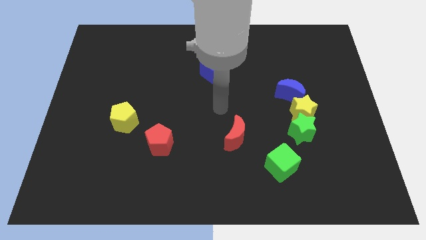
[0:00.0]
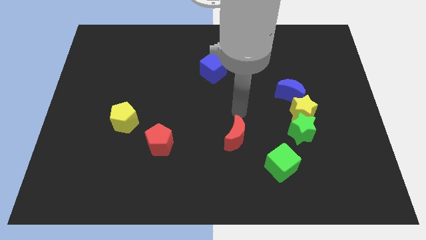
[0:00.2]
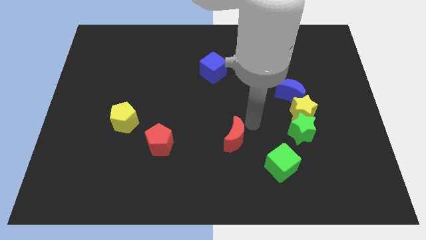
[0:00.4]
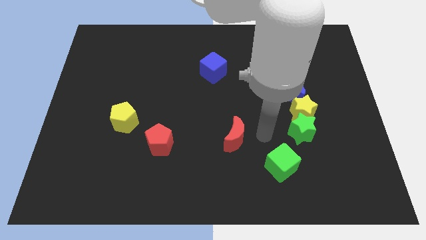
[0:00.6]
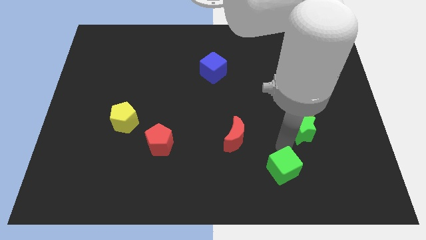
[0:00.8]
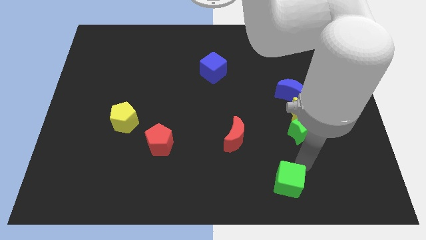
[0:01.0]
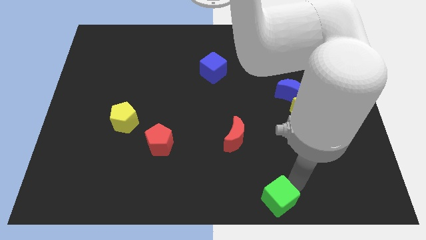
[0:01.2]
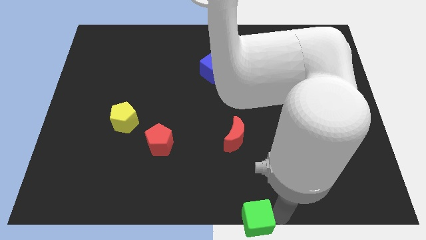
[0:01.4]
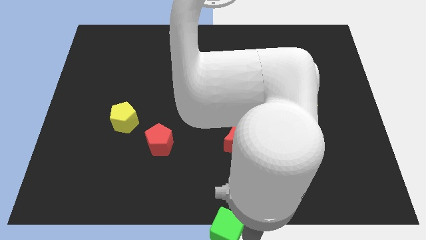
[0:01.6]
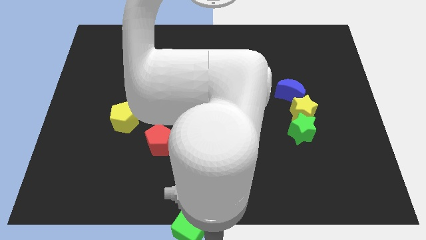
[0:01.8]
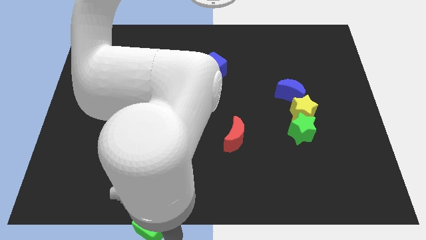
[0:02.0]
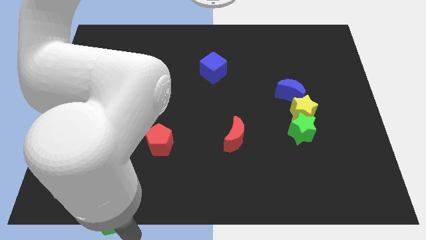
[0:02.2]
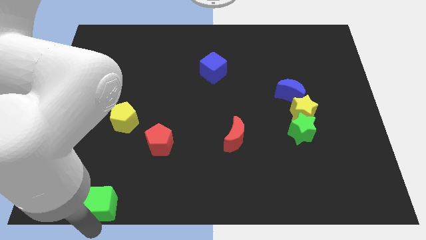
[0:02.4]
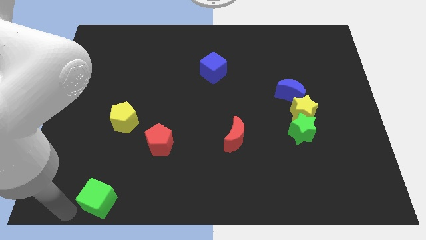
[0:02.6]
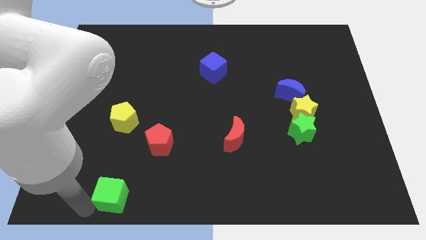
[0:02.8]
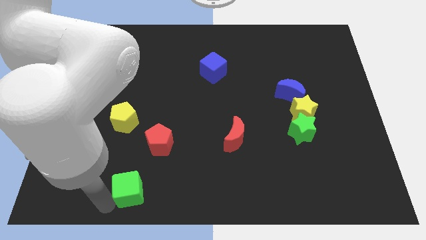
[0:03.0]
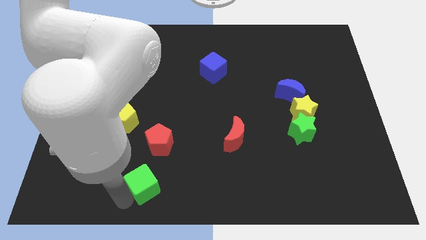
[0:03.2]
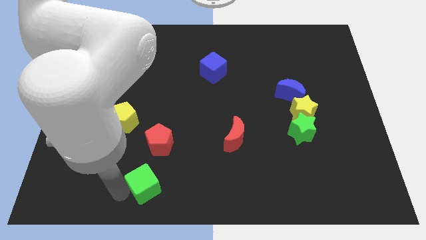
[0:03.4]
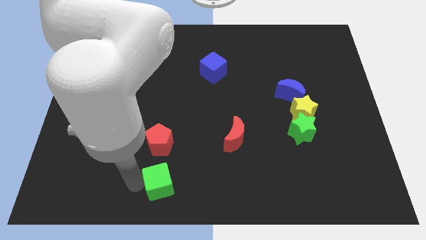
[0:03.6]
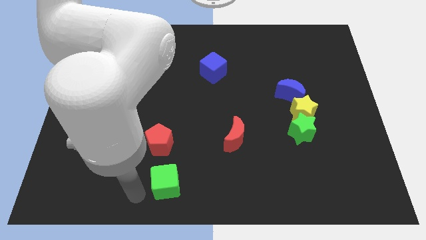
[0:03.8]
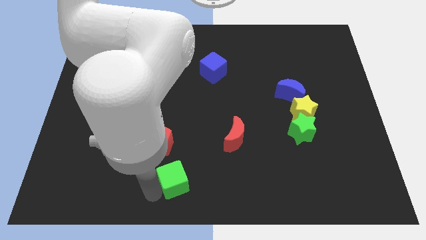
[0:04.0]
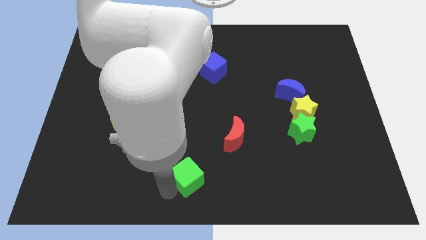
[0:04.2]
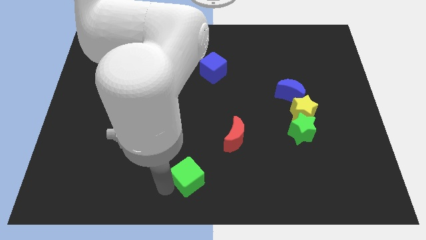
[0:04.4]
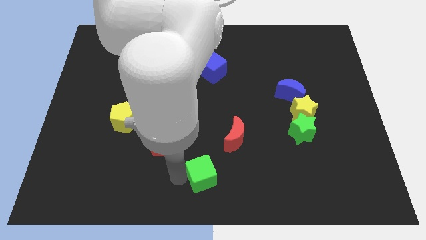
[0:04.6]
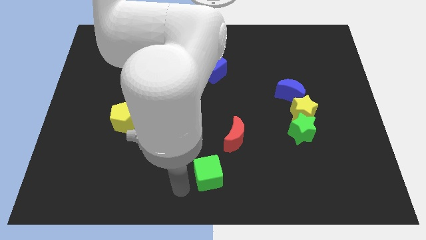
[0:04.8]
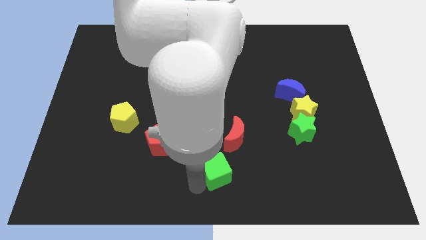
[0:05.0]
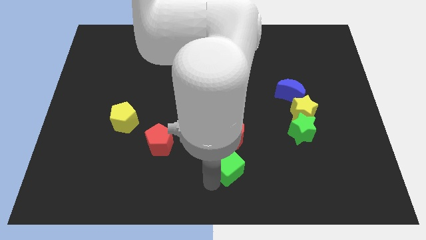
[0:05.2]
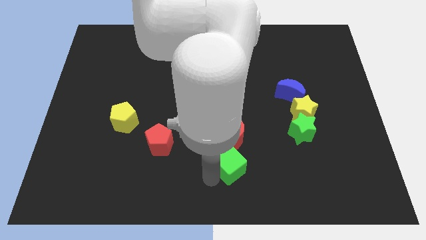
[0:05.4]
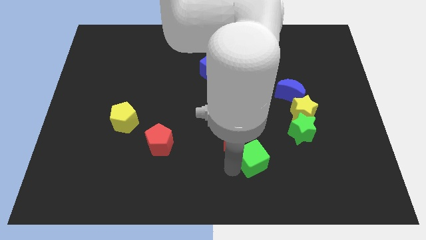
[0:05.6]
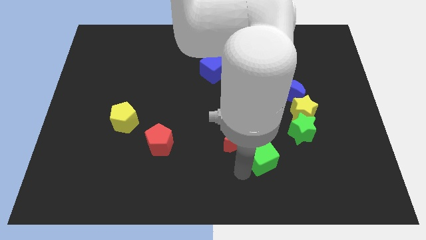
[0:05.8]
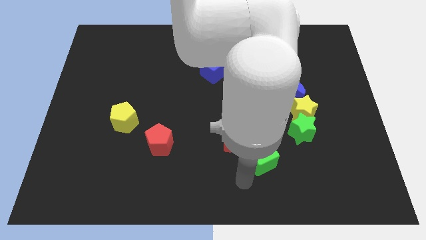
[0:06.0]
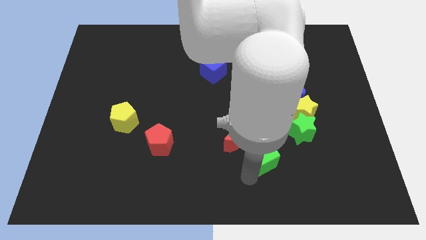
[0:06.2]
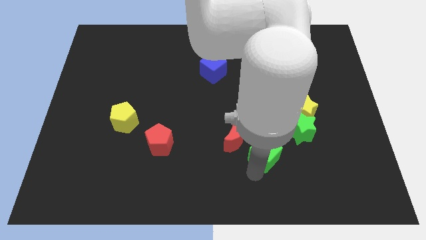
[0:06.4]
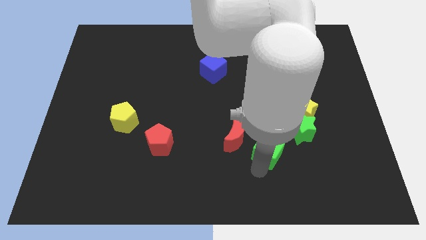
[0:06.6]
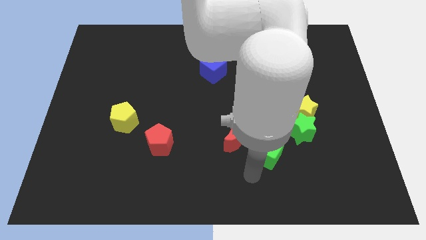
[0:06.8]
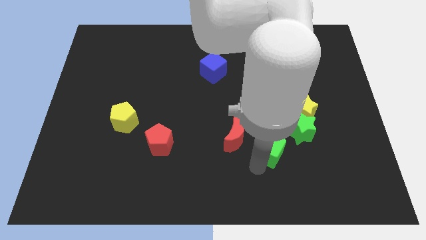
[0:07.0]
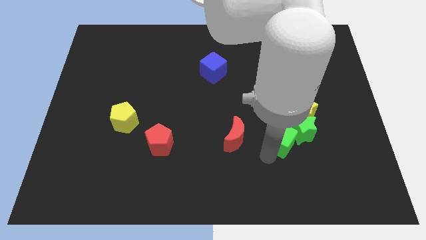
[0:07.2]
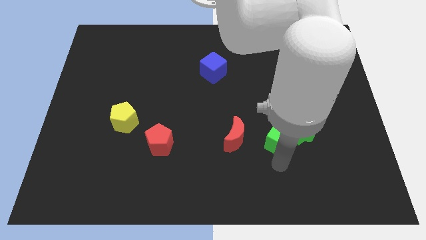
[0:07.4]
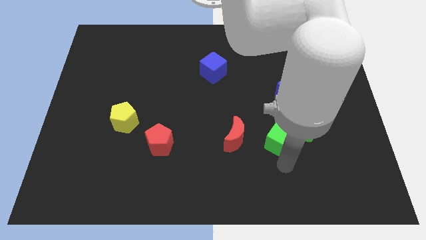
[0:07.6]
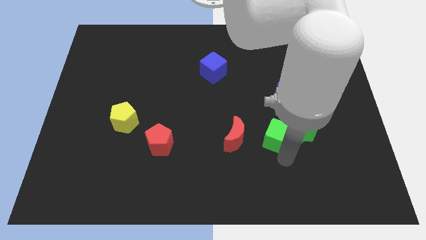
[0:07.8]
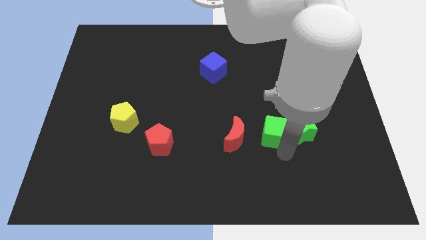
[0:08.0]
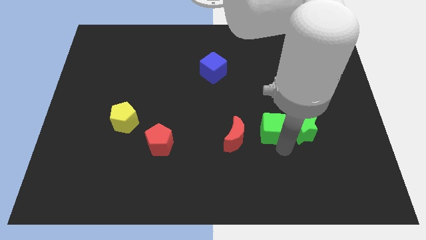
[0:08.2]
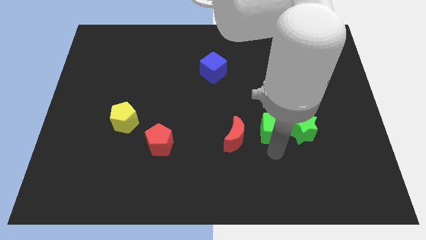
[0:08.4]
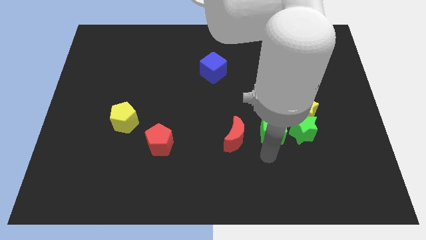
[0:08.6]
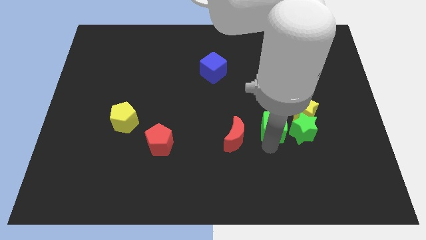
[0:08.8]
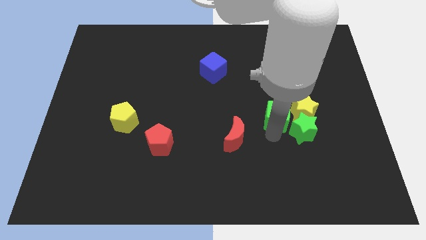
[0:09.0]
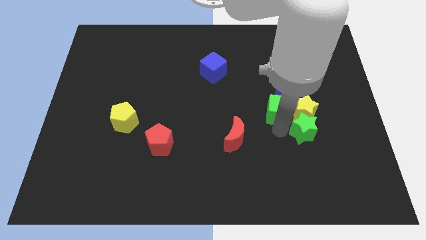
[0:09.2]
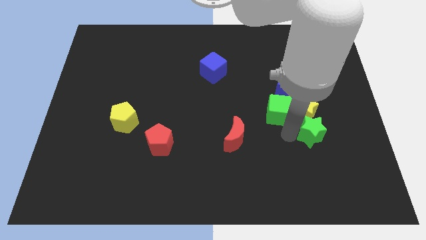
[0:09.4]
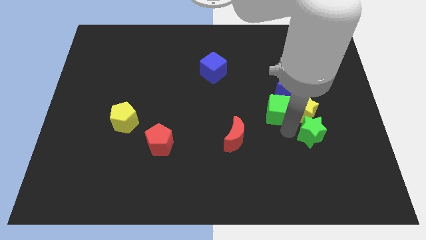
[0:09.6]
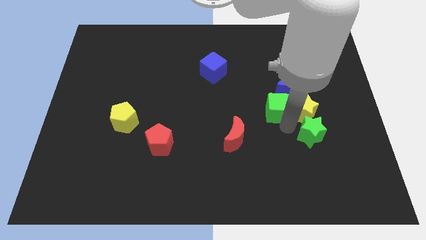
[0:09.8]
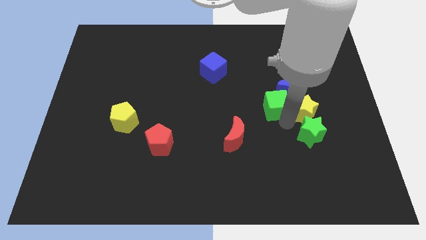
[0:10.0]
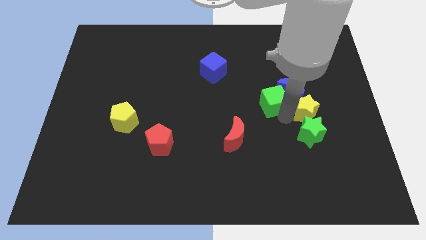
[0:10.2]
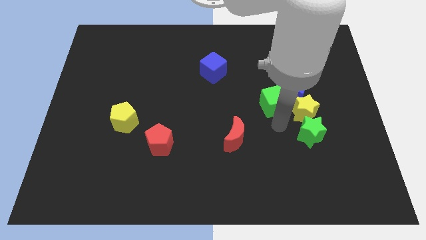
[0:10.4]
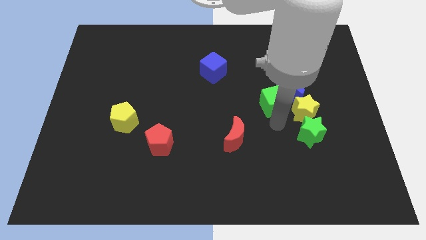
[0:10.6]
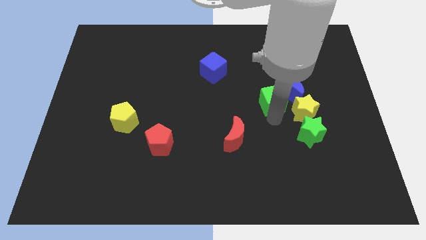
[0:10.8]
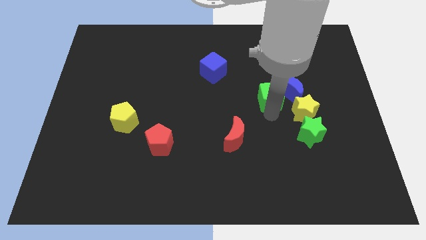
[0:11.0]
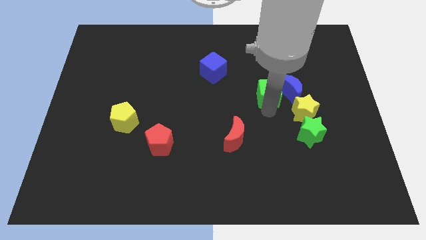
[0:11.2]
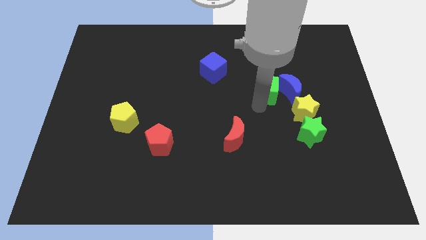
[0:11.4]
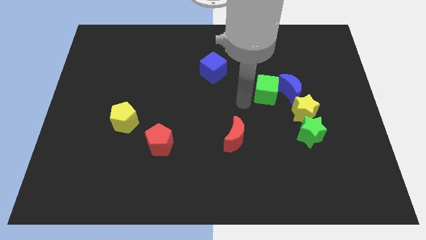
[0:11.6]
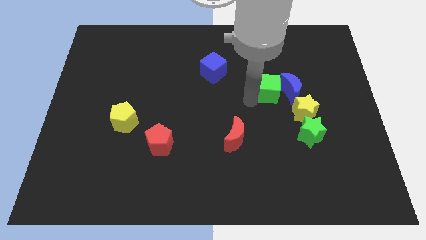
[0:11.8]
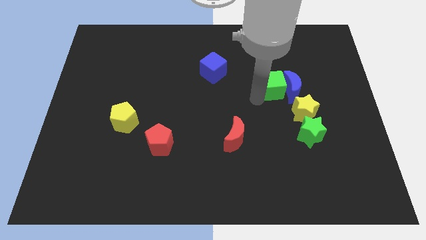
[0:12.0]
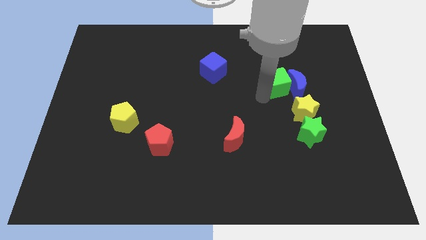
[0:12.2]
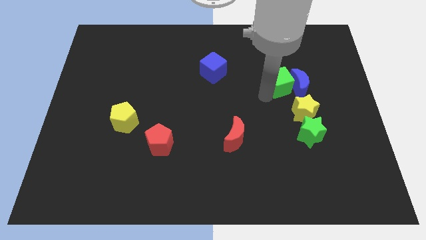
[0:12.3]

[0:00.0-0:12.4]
move the green cube to the top of the yellow star

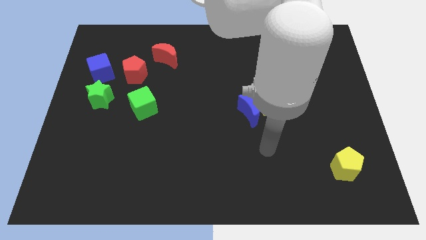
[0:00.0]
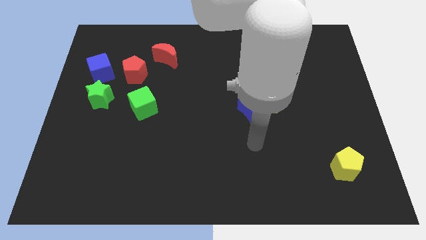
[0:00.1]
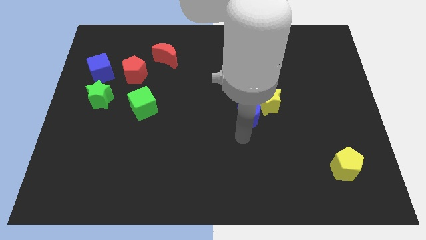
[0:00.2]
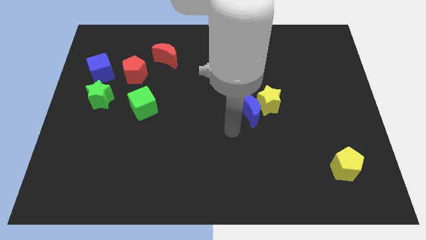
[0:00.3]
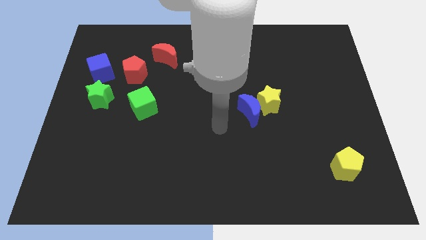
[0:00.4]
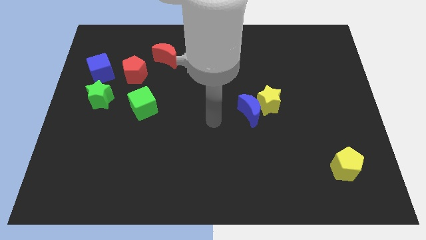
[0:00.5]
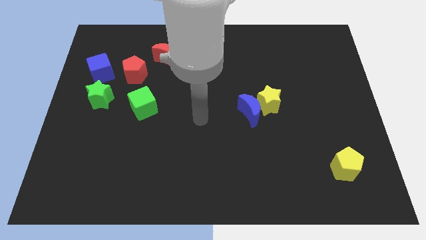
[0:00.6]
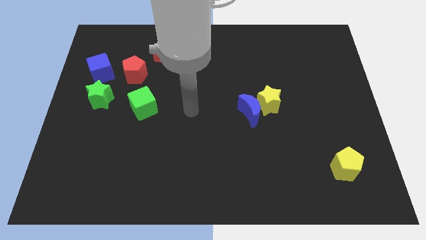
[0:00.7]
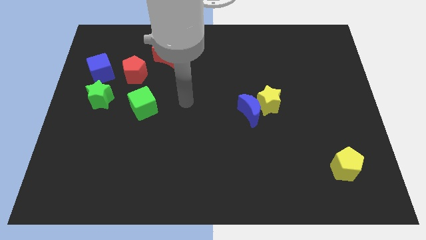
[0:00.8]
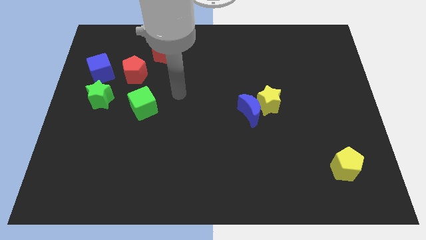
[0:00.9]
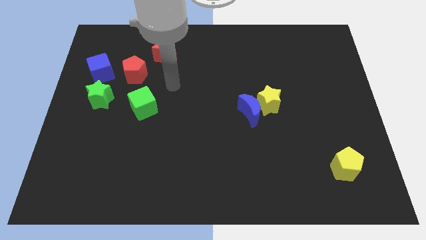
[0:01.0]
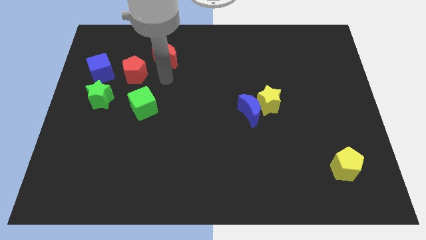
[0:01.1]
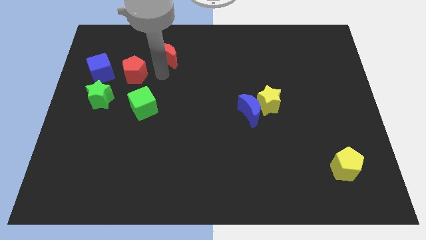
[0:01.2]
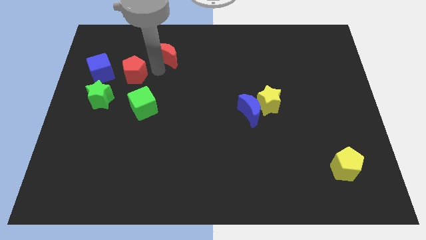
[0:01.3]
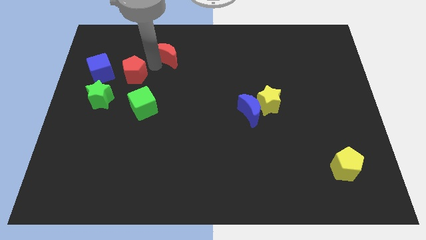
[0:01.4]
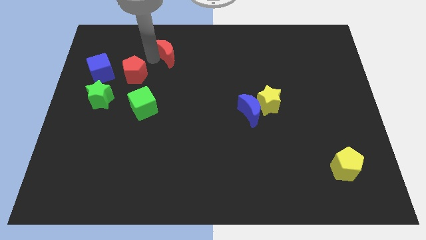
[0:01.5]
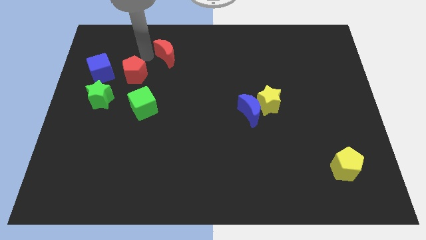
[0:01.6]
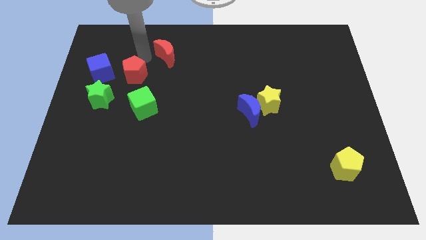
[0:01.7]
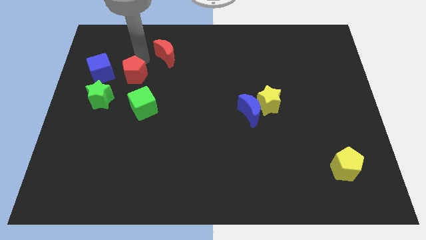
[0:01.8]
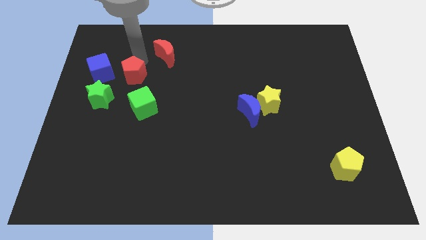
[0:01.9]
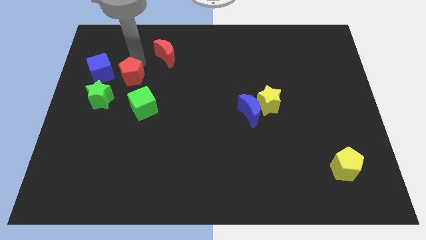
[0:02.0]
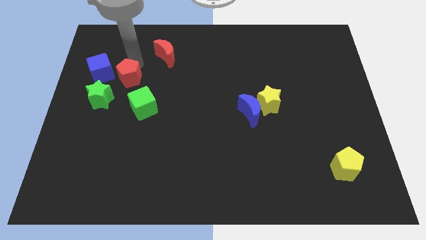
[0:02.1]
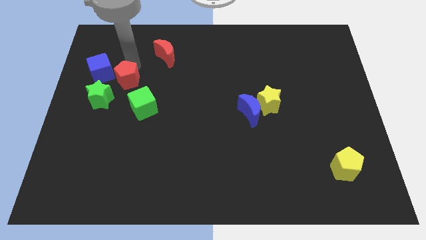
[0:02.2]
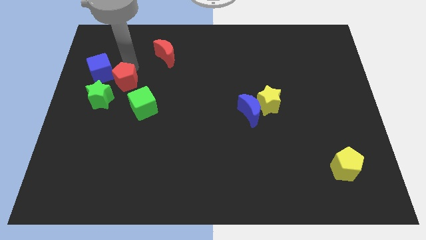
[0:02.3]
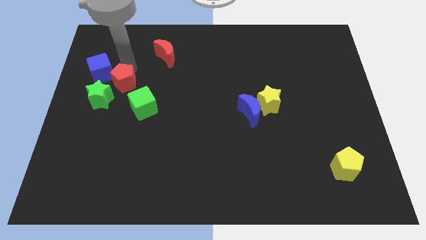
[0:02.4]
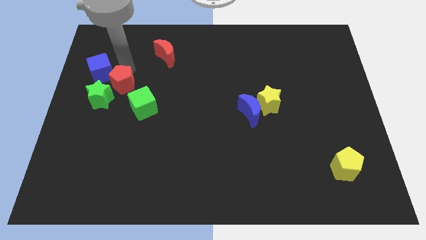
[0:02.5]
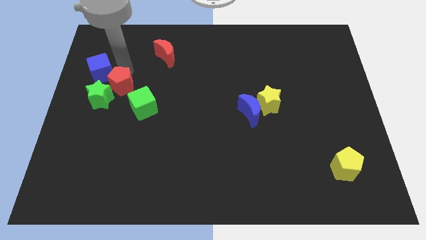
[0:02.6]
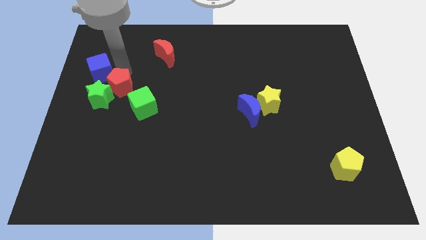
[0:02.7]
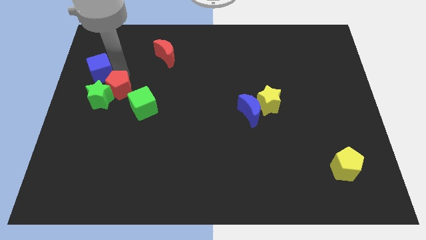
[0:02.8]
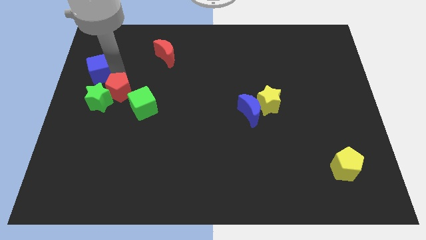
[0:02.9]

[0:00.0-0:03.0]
slide the red pentagon left of the green cube
